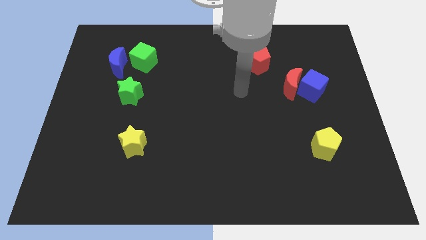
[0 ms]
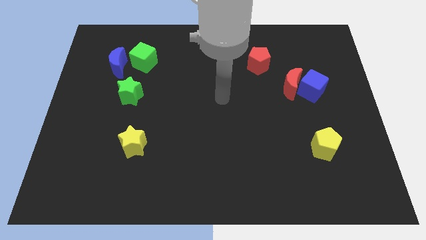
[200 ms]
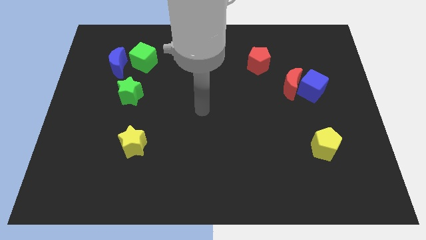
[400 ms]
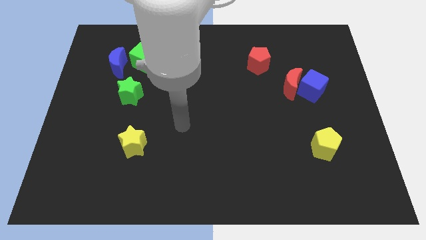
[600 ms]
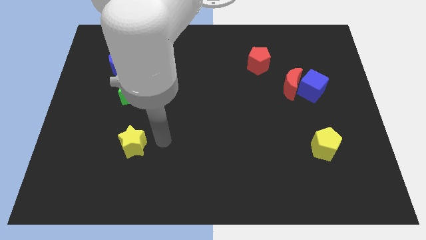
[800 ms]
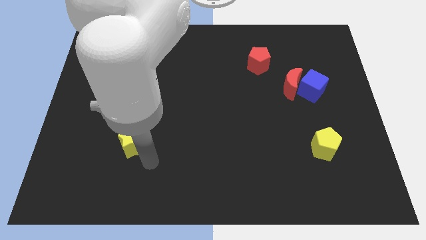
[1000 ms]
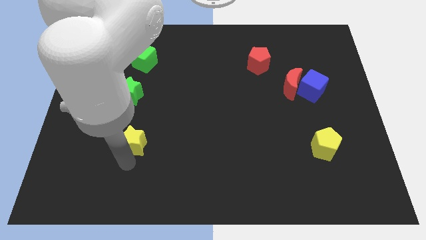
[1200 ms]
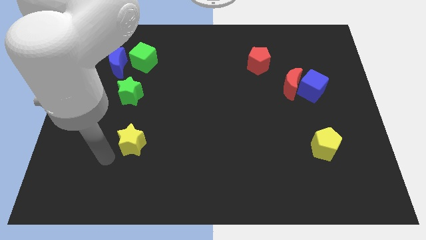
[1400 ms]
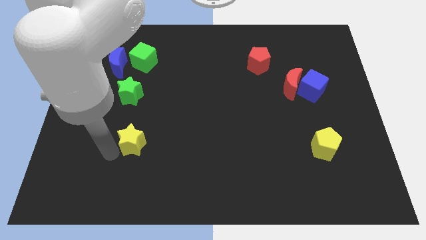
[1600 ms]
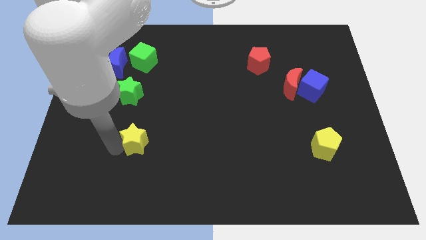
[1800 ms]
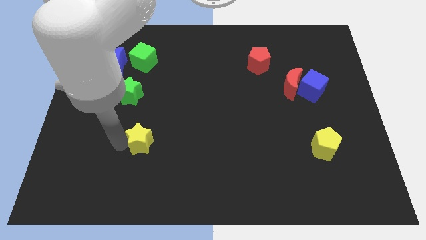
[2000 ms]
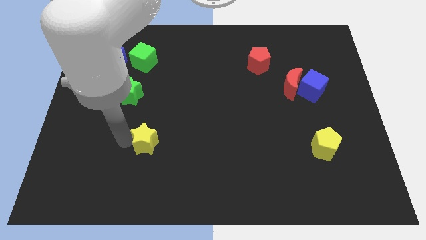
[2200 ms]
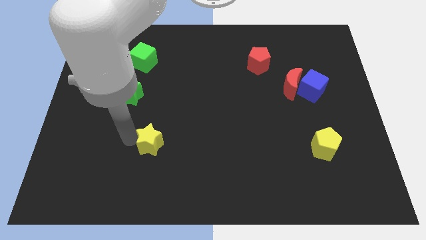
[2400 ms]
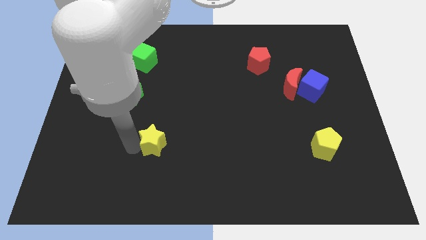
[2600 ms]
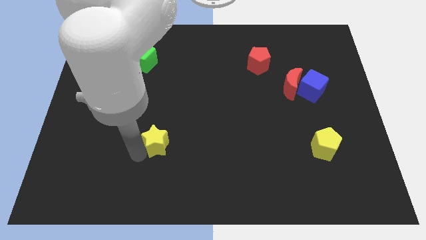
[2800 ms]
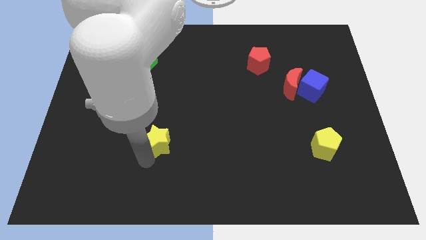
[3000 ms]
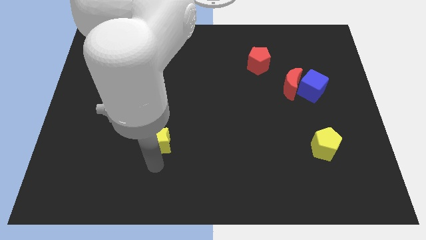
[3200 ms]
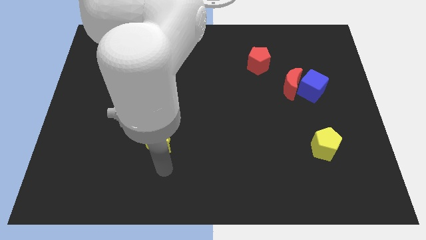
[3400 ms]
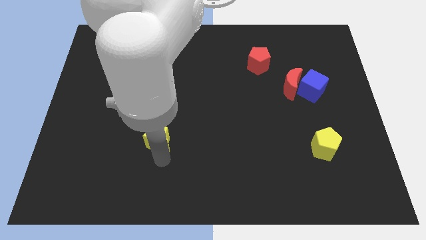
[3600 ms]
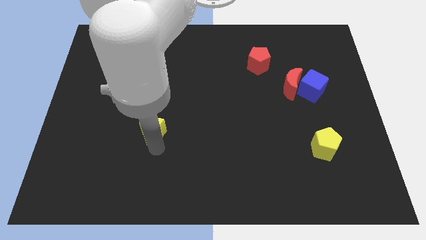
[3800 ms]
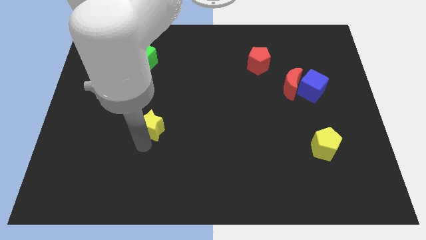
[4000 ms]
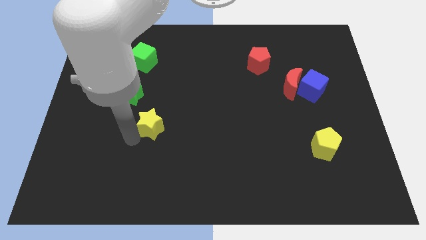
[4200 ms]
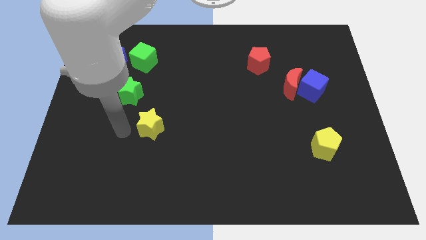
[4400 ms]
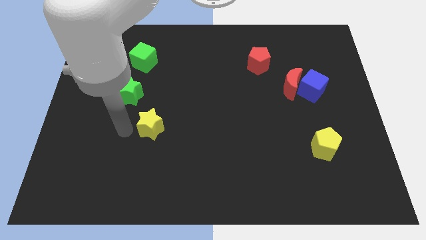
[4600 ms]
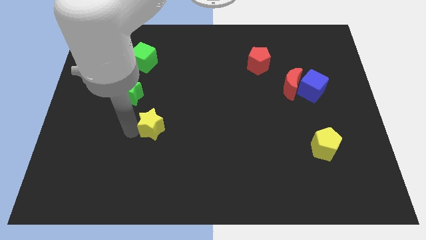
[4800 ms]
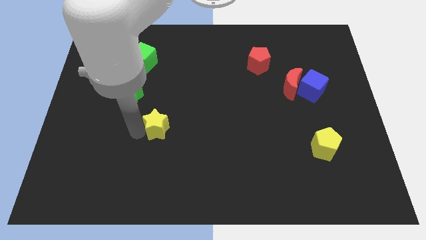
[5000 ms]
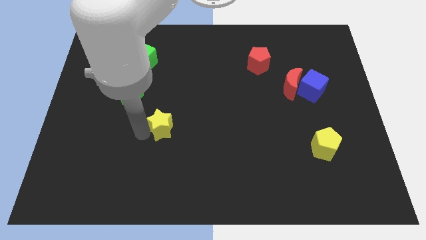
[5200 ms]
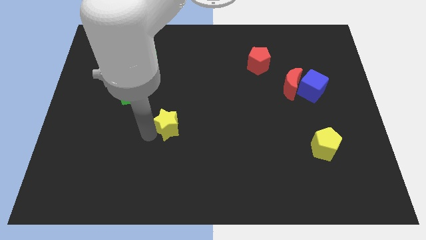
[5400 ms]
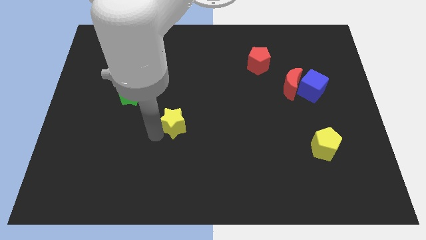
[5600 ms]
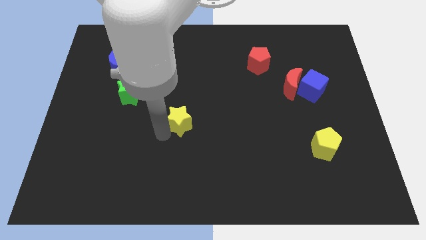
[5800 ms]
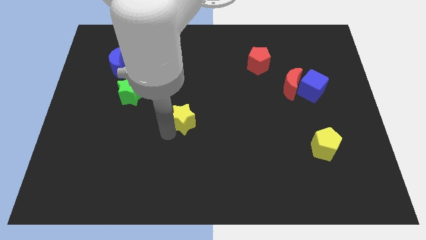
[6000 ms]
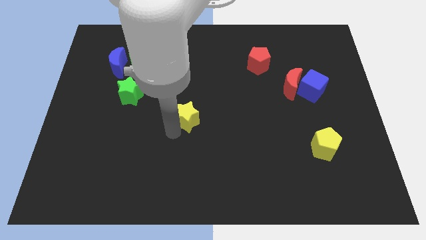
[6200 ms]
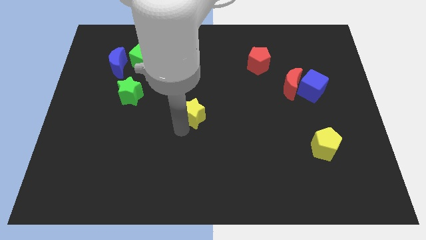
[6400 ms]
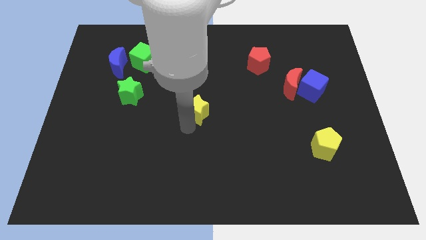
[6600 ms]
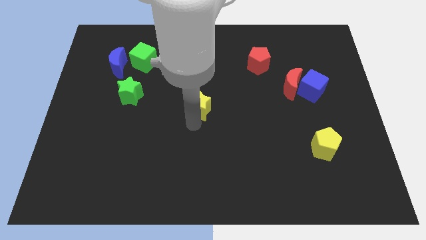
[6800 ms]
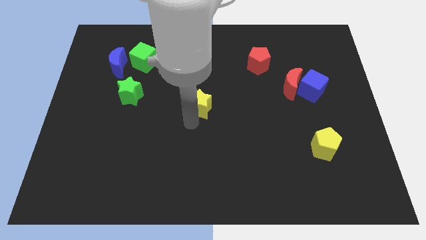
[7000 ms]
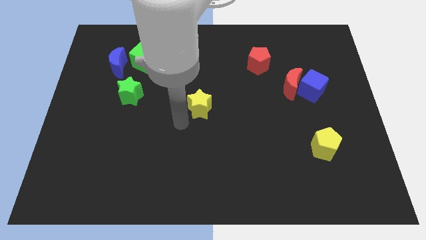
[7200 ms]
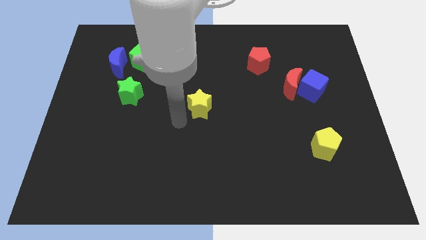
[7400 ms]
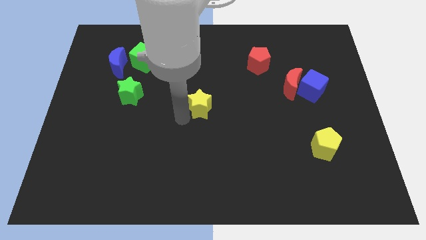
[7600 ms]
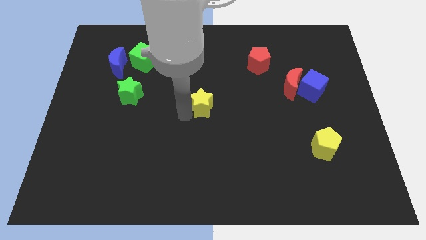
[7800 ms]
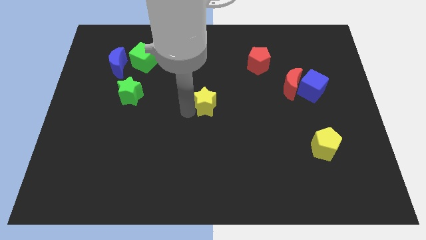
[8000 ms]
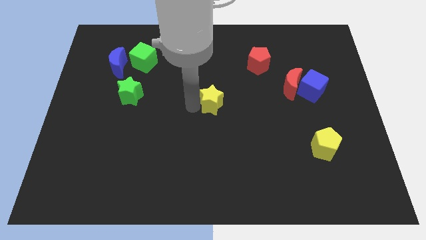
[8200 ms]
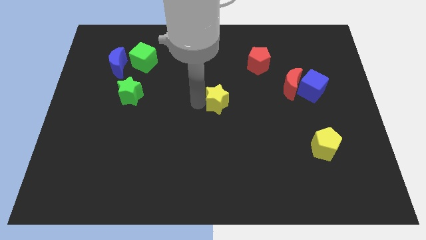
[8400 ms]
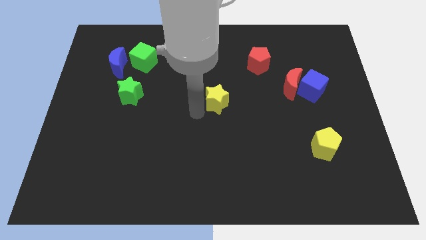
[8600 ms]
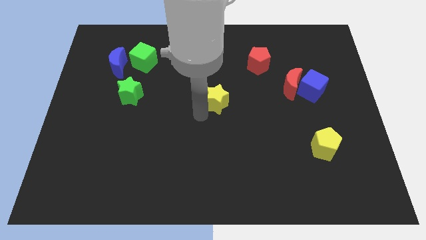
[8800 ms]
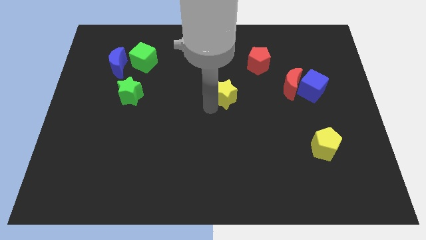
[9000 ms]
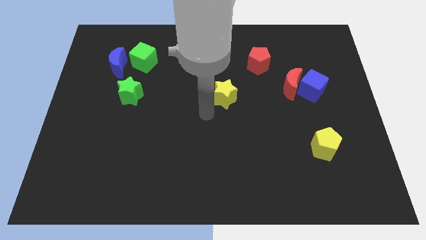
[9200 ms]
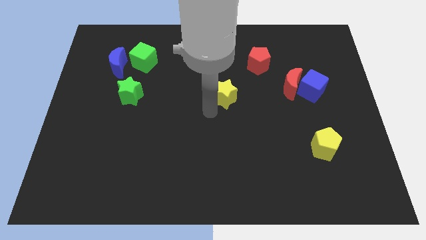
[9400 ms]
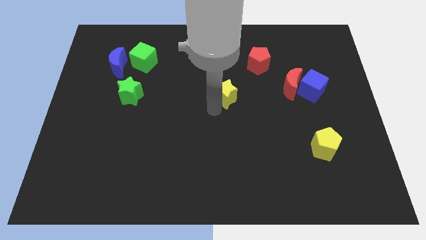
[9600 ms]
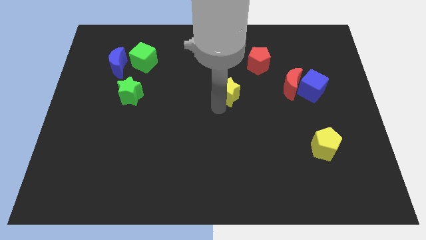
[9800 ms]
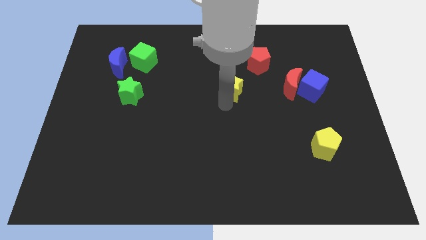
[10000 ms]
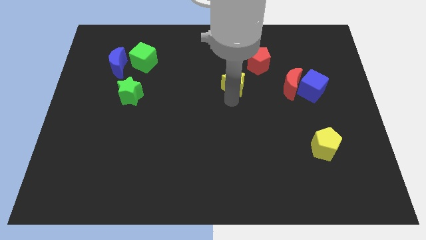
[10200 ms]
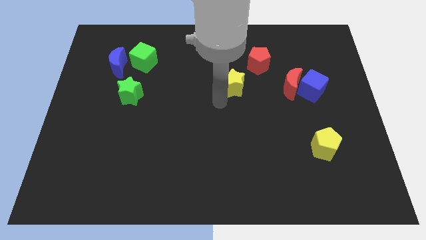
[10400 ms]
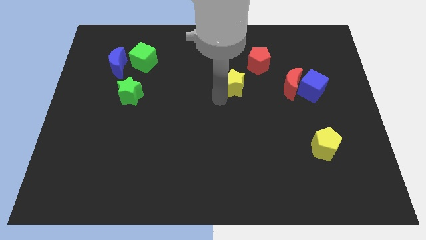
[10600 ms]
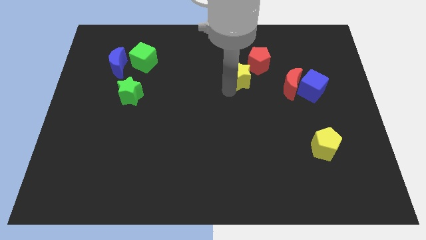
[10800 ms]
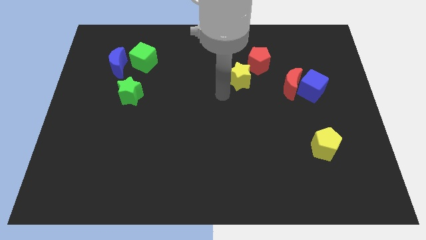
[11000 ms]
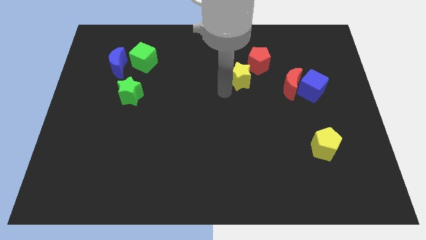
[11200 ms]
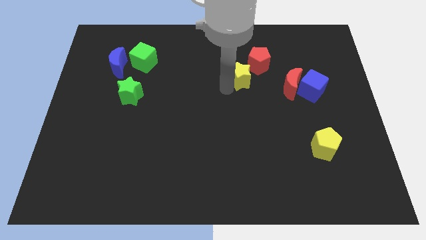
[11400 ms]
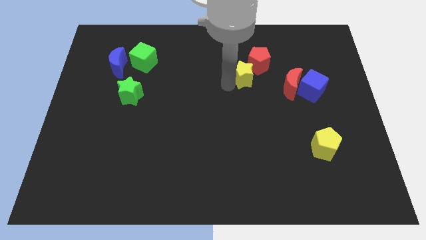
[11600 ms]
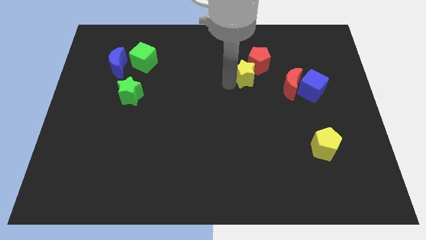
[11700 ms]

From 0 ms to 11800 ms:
put the yellow star towards the red pentagon

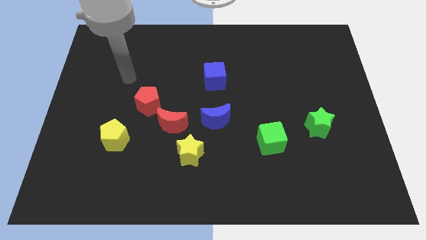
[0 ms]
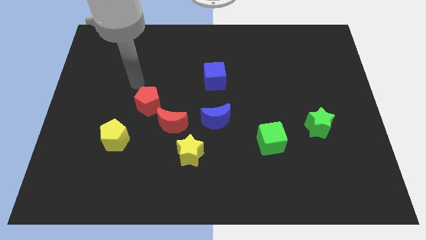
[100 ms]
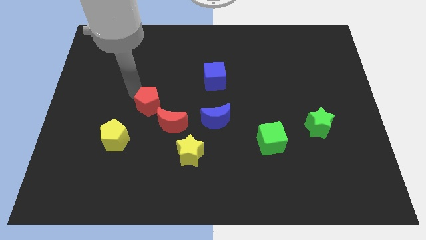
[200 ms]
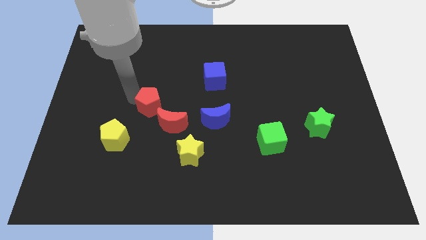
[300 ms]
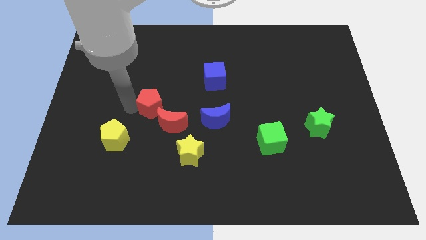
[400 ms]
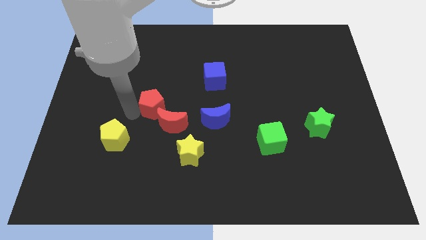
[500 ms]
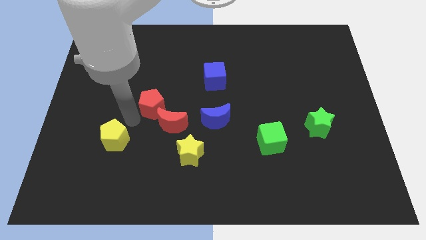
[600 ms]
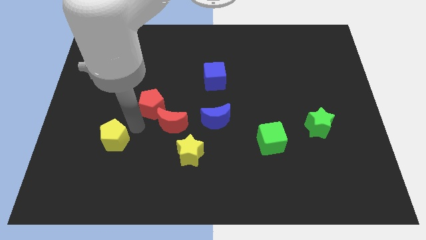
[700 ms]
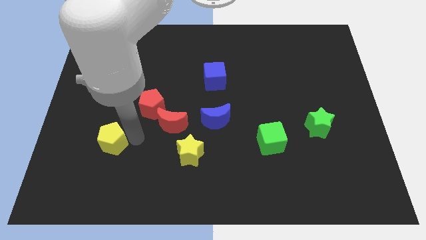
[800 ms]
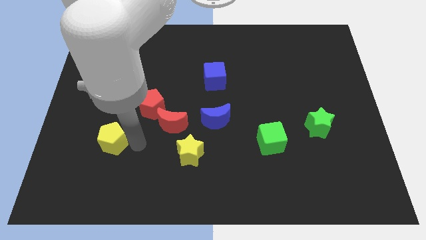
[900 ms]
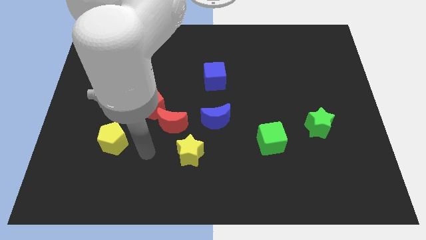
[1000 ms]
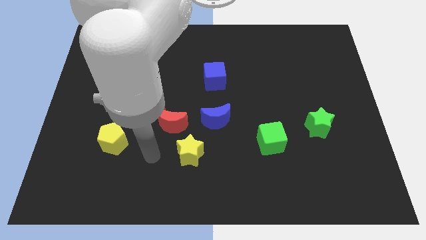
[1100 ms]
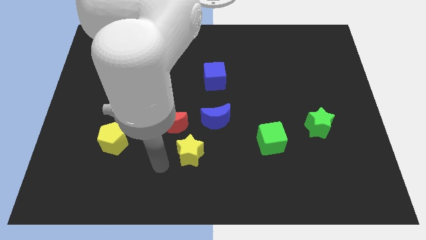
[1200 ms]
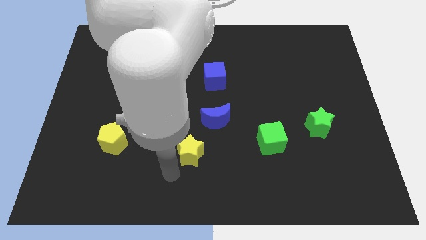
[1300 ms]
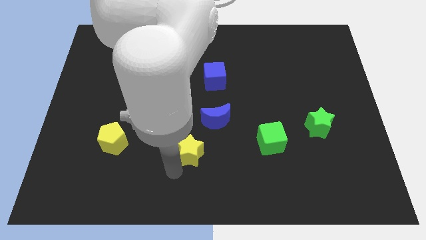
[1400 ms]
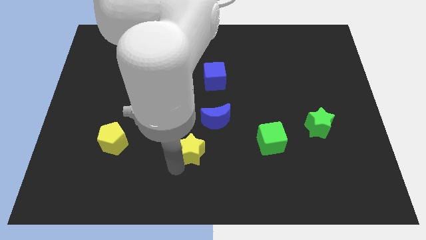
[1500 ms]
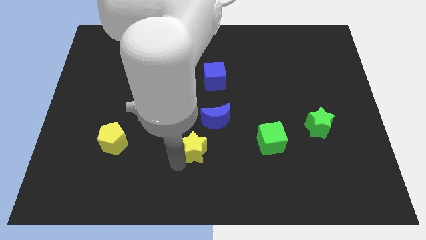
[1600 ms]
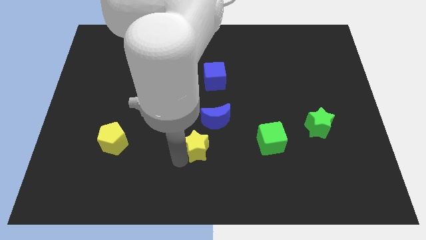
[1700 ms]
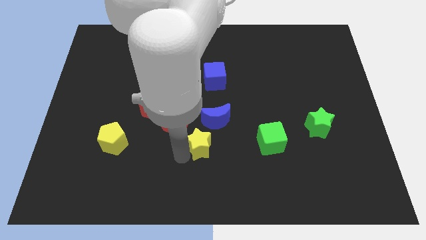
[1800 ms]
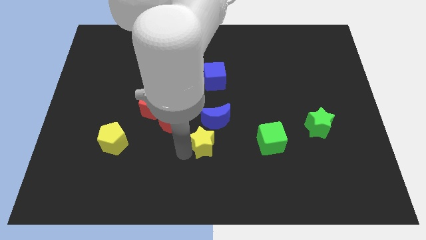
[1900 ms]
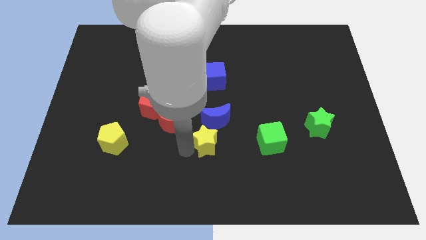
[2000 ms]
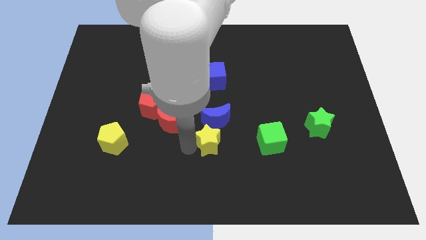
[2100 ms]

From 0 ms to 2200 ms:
push the yellow star to the blue moon
